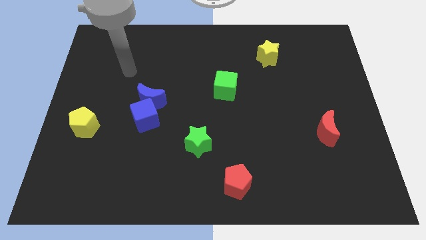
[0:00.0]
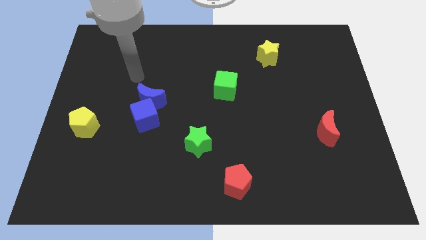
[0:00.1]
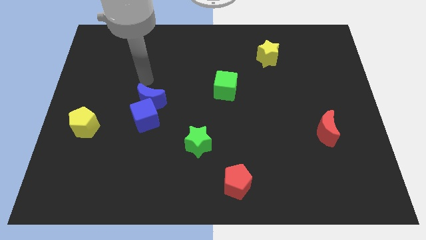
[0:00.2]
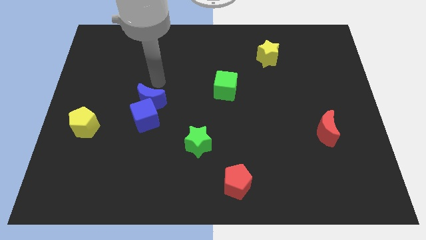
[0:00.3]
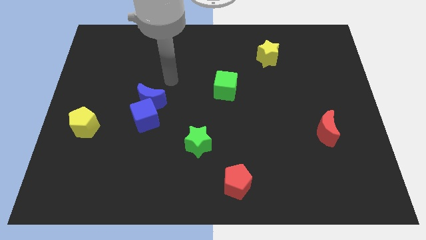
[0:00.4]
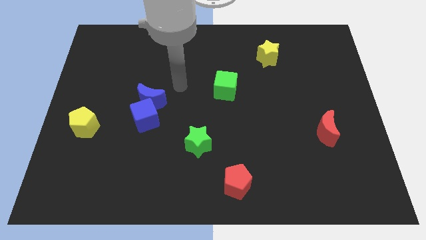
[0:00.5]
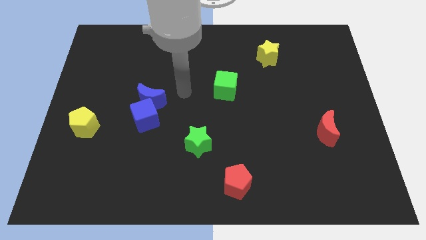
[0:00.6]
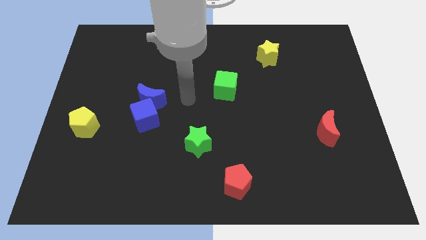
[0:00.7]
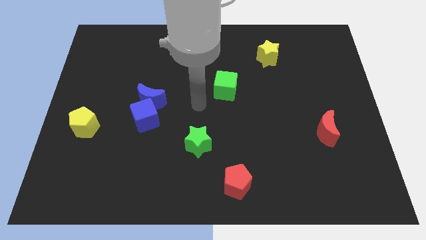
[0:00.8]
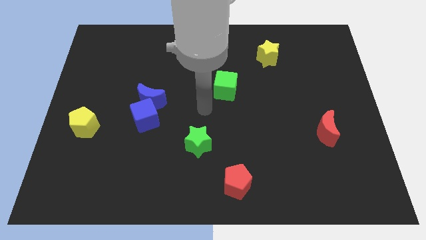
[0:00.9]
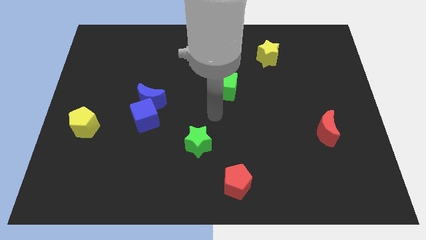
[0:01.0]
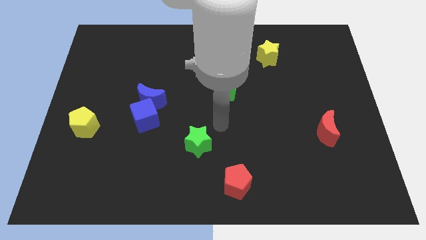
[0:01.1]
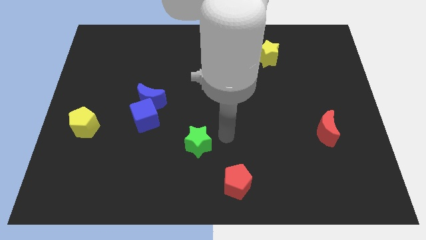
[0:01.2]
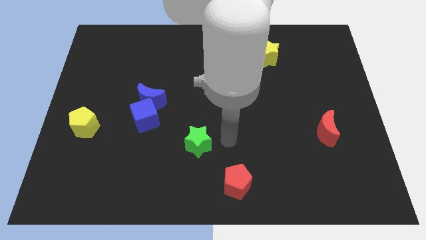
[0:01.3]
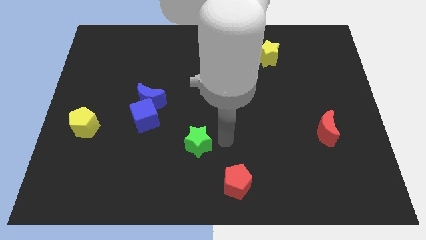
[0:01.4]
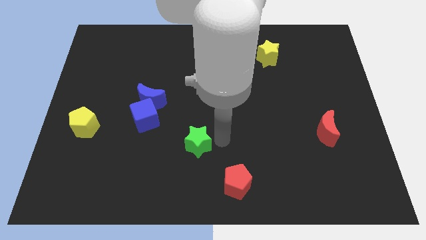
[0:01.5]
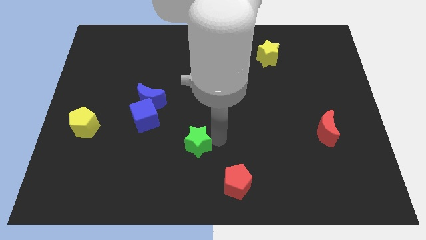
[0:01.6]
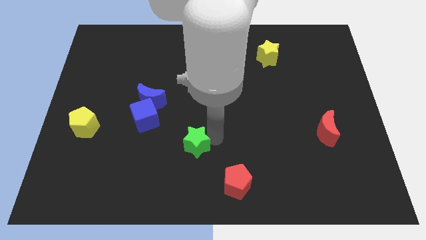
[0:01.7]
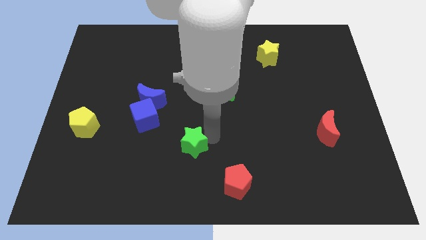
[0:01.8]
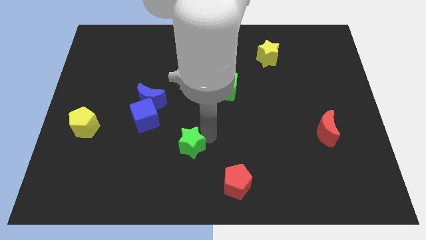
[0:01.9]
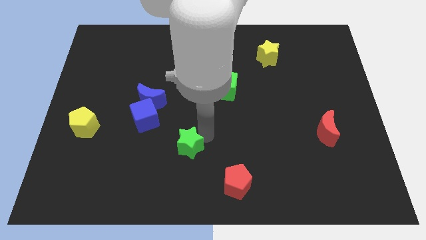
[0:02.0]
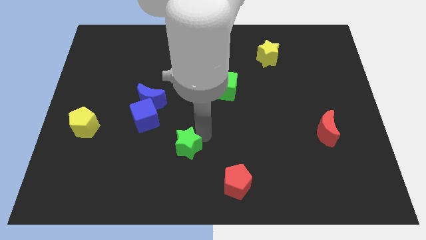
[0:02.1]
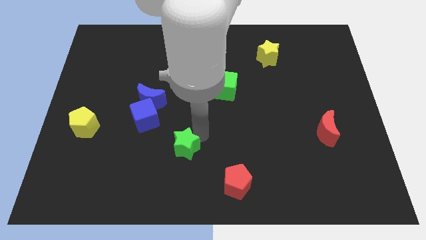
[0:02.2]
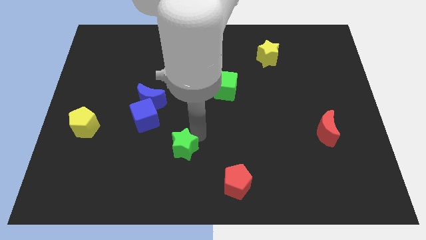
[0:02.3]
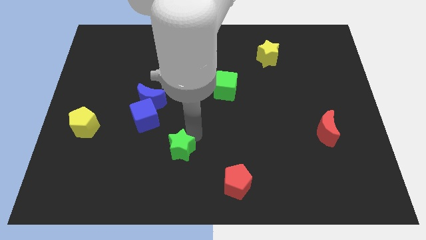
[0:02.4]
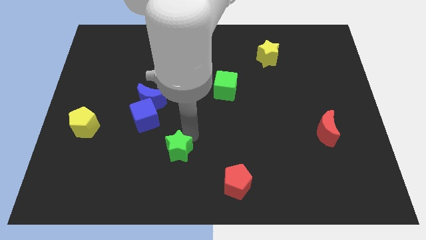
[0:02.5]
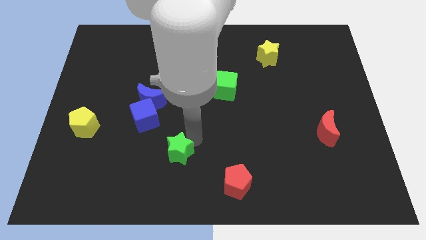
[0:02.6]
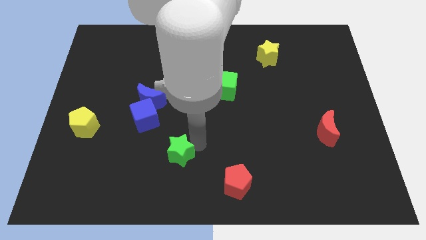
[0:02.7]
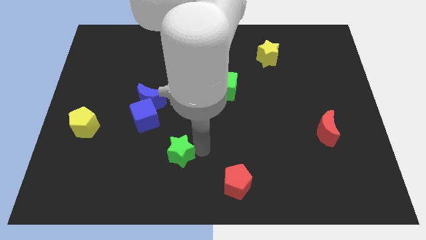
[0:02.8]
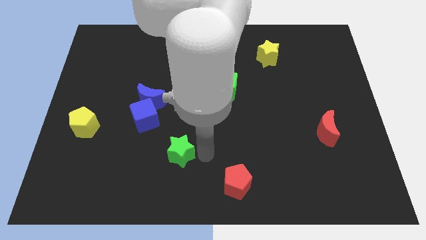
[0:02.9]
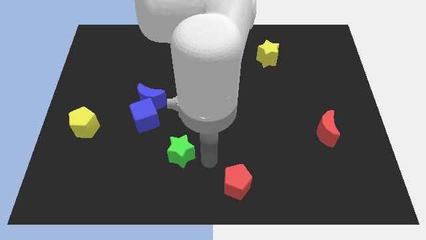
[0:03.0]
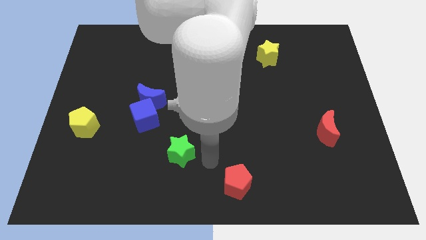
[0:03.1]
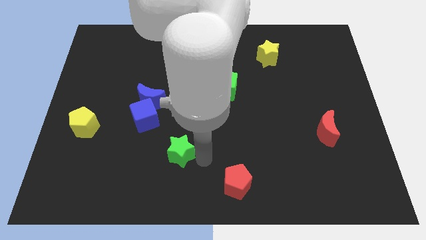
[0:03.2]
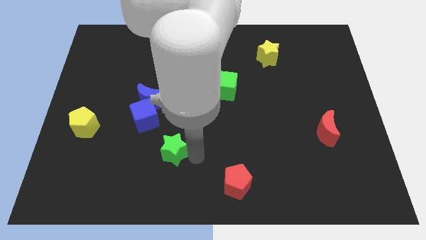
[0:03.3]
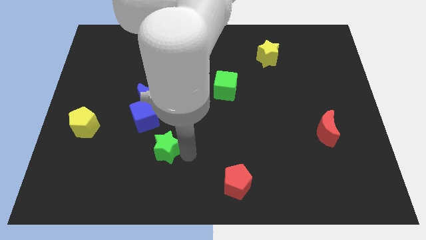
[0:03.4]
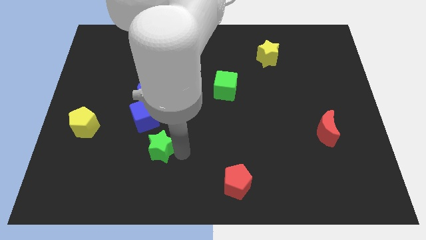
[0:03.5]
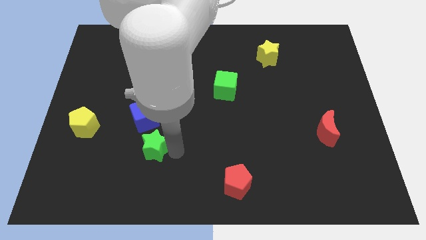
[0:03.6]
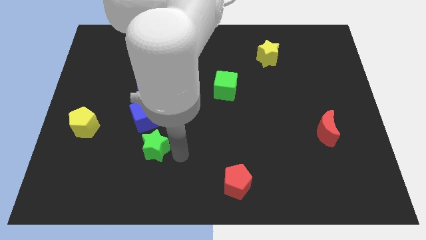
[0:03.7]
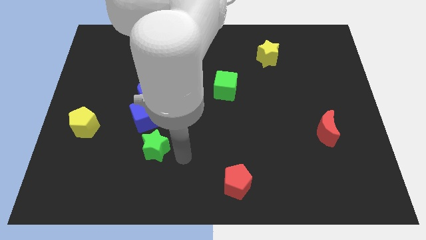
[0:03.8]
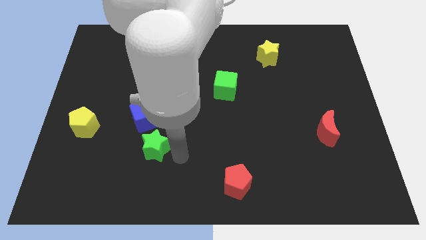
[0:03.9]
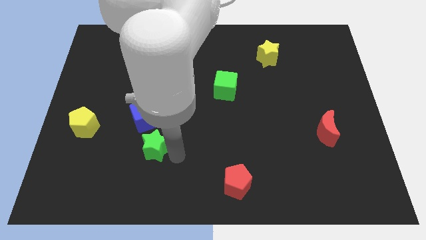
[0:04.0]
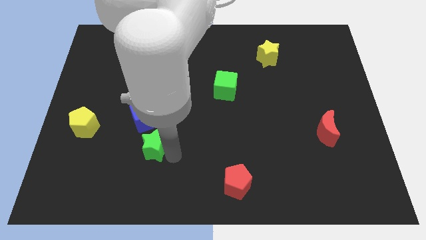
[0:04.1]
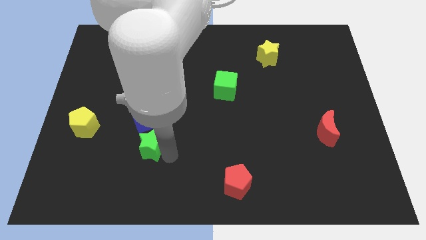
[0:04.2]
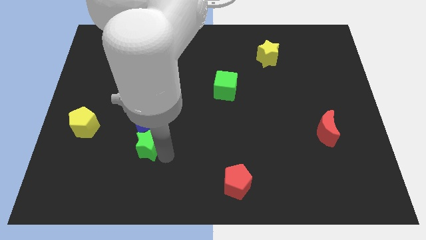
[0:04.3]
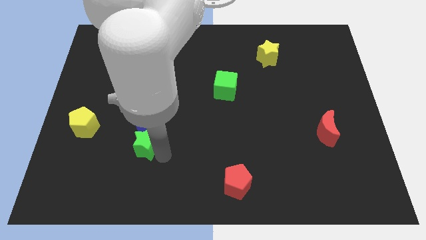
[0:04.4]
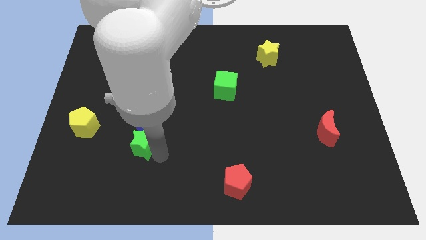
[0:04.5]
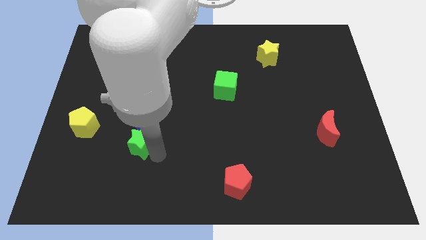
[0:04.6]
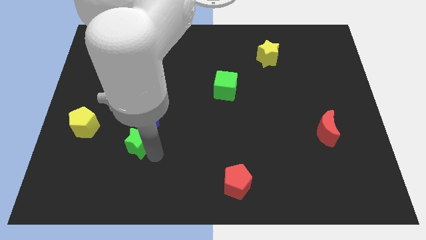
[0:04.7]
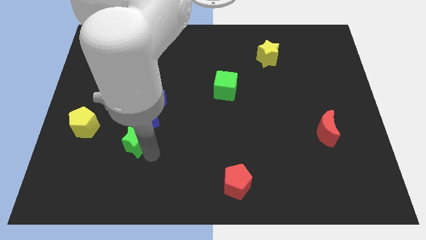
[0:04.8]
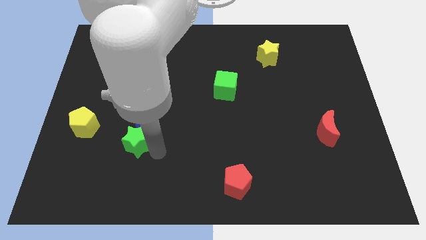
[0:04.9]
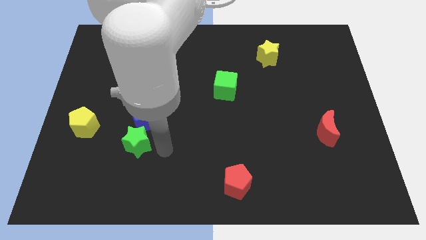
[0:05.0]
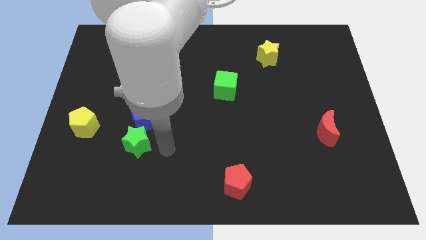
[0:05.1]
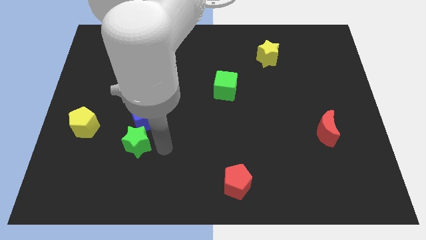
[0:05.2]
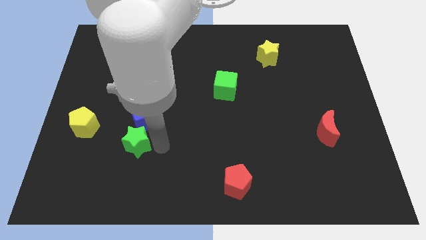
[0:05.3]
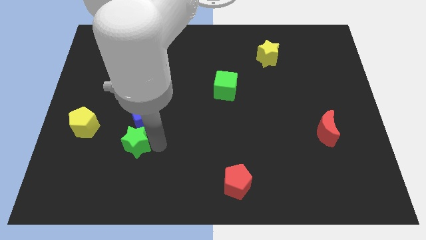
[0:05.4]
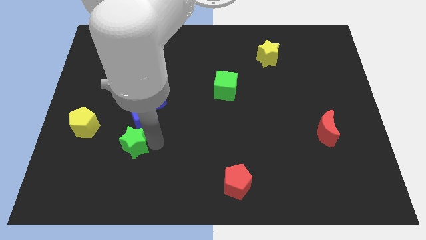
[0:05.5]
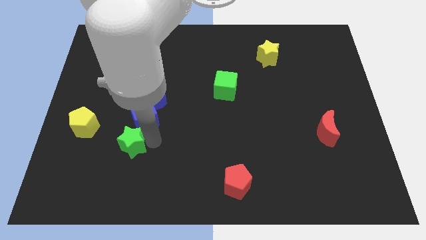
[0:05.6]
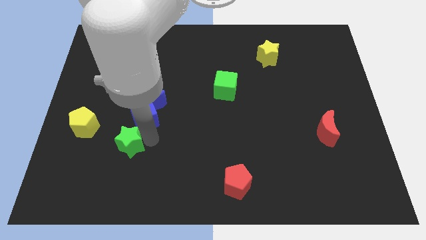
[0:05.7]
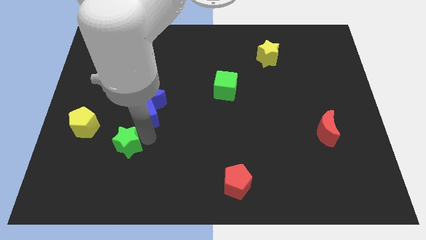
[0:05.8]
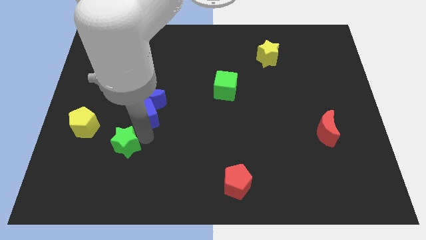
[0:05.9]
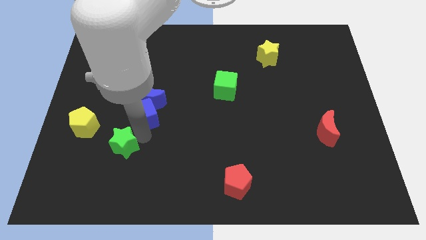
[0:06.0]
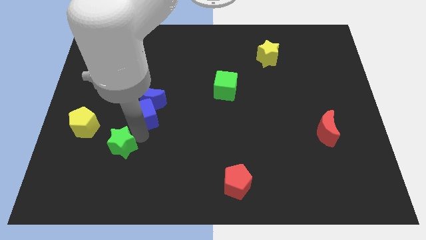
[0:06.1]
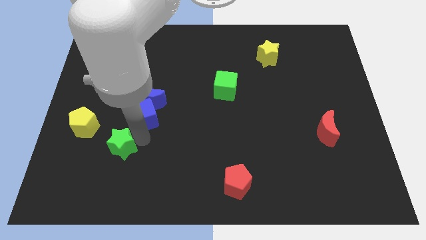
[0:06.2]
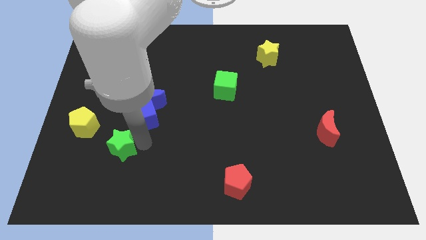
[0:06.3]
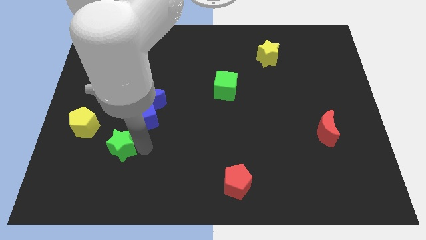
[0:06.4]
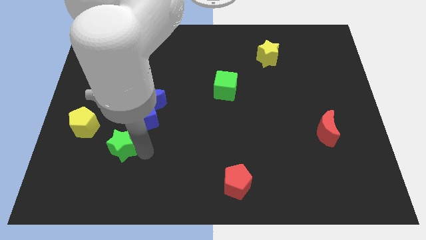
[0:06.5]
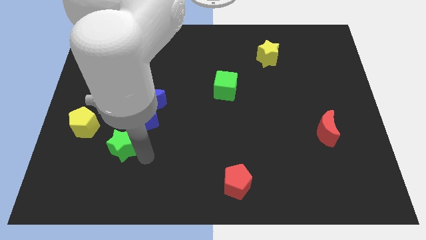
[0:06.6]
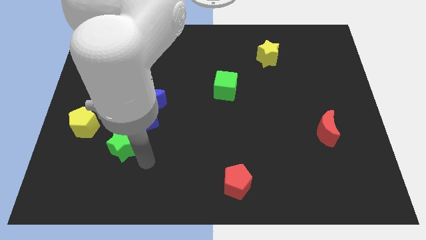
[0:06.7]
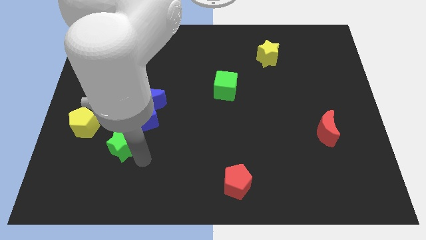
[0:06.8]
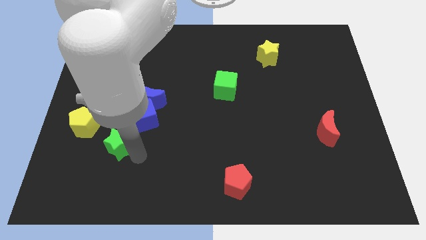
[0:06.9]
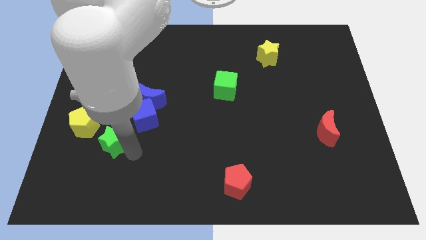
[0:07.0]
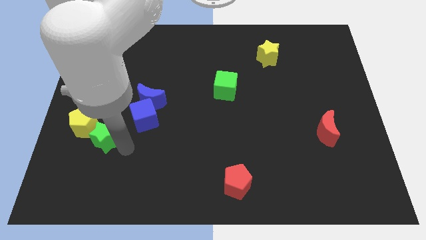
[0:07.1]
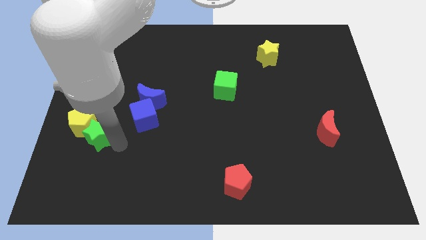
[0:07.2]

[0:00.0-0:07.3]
put the green star next to the yellow pentagon

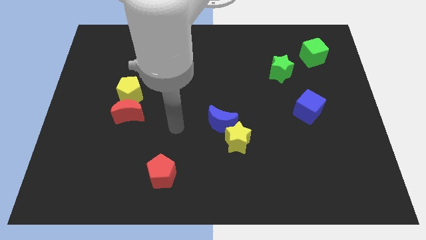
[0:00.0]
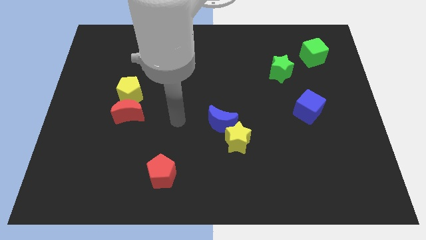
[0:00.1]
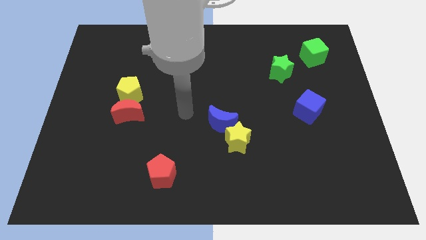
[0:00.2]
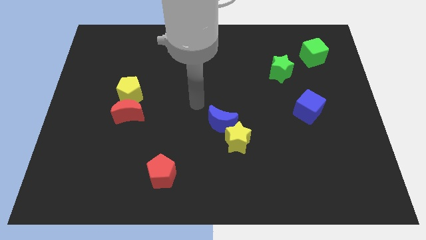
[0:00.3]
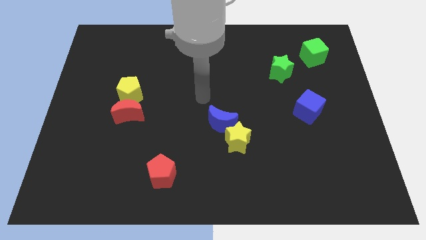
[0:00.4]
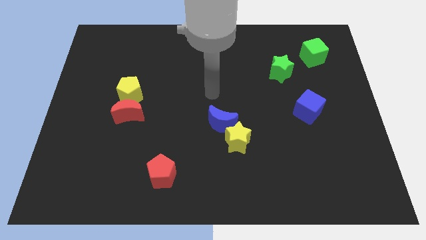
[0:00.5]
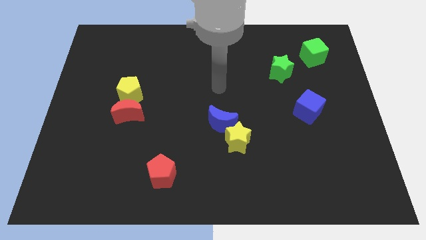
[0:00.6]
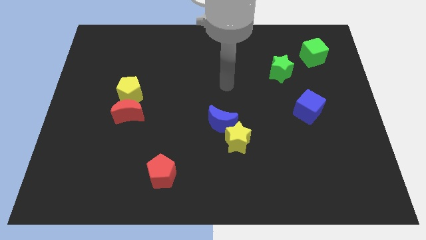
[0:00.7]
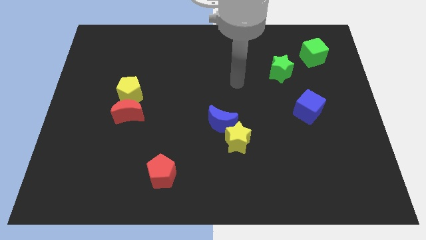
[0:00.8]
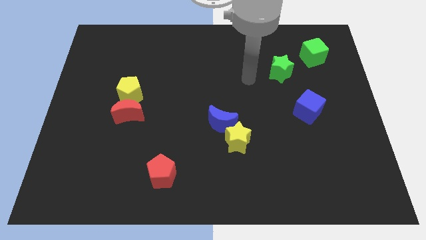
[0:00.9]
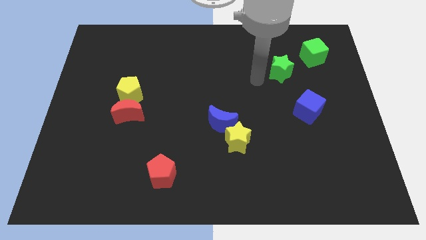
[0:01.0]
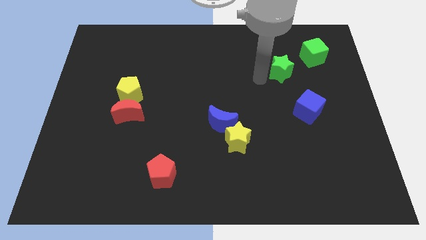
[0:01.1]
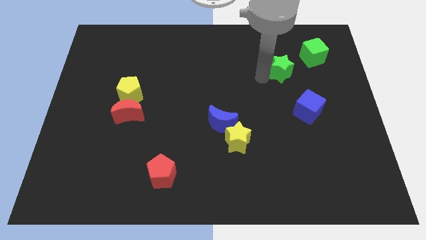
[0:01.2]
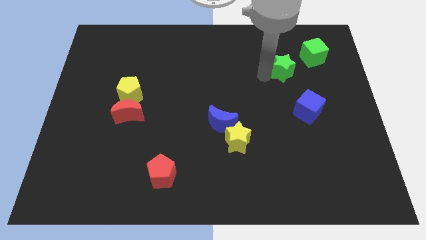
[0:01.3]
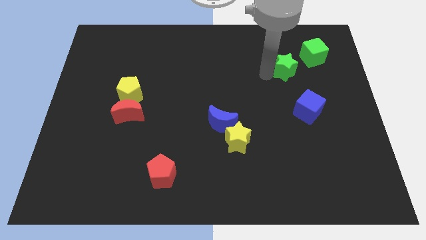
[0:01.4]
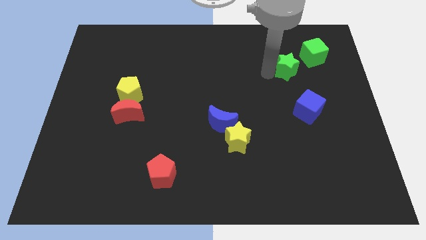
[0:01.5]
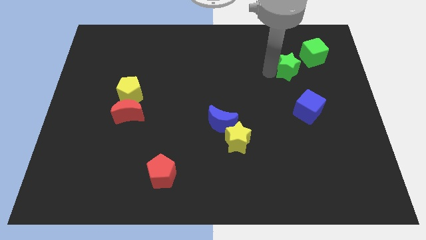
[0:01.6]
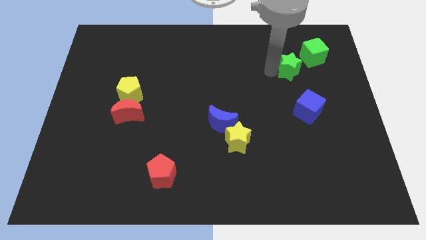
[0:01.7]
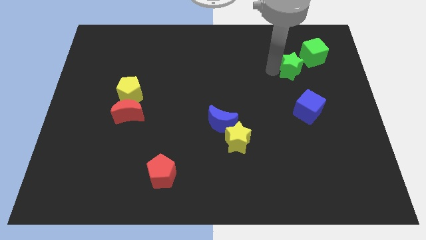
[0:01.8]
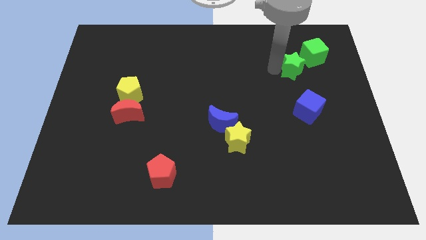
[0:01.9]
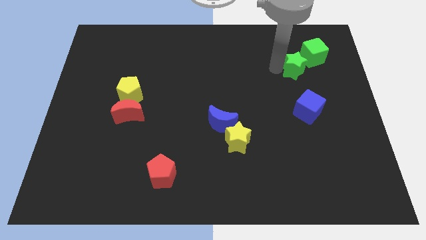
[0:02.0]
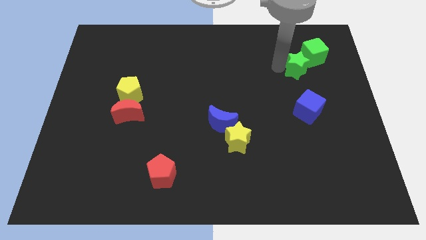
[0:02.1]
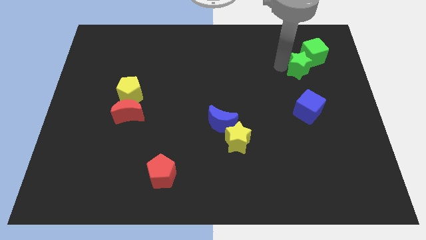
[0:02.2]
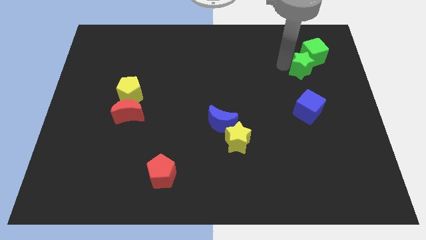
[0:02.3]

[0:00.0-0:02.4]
push the green star towards the green cube
